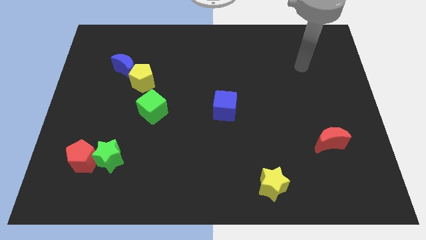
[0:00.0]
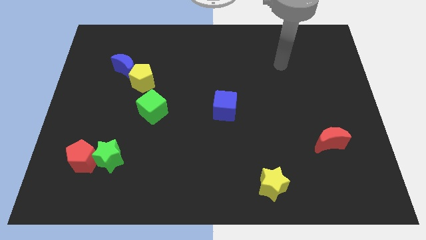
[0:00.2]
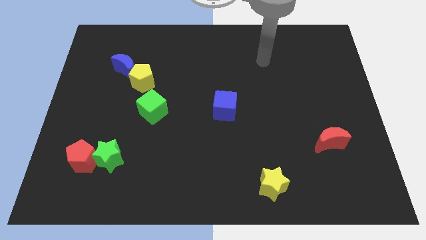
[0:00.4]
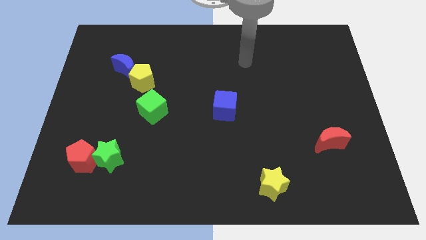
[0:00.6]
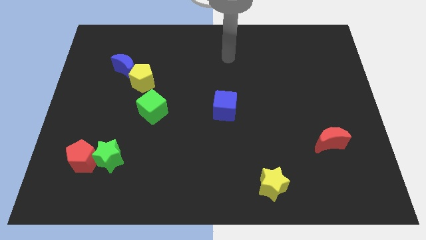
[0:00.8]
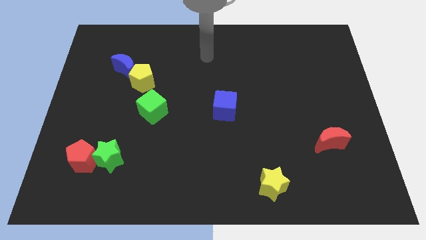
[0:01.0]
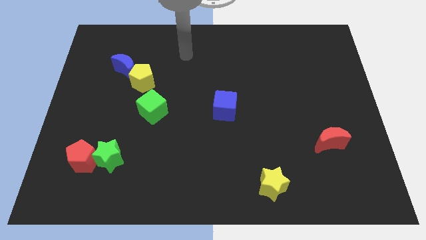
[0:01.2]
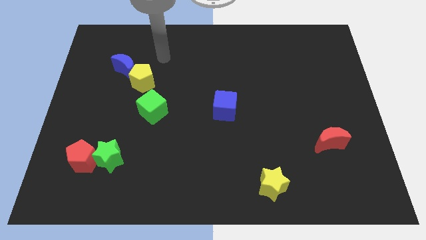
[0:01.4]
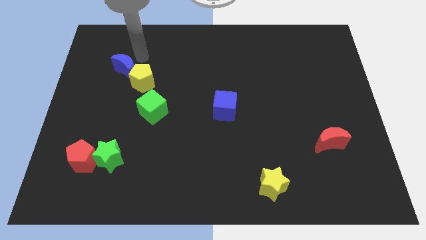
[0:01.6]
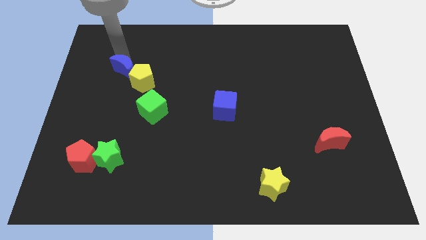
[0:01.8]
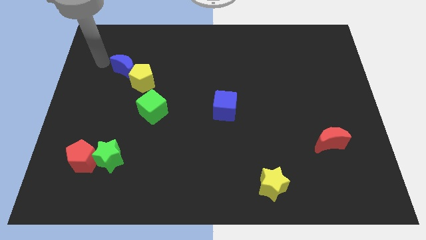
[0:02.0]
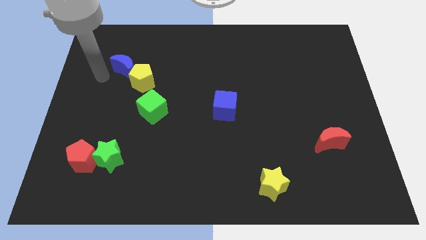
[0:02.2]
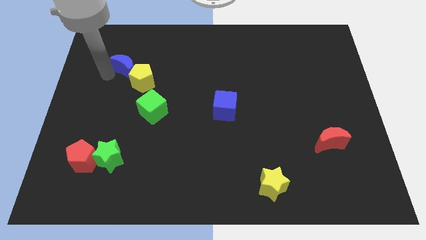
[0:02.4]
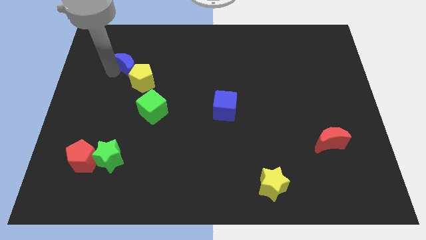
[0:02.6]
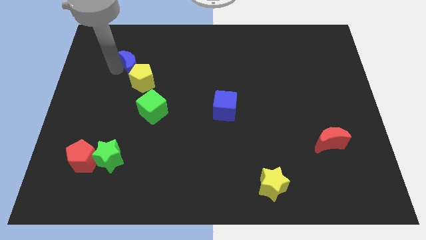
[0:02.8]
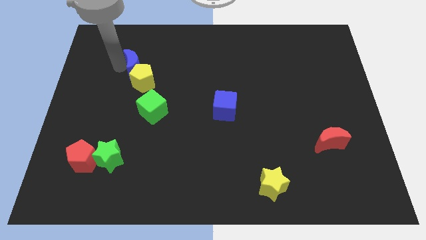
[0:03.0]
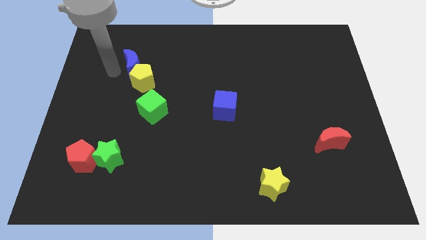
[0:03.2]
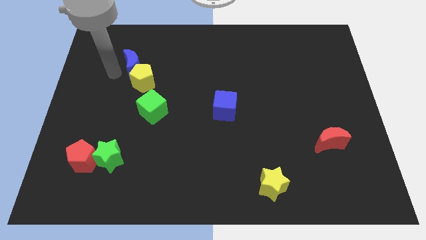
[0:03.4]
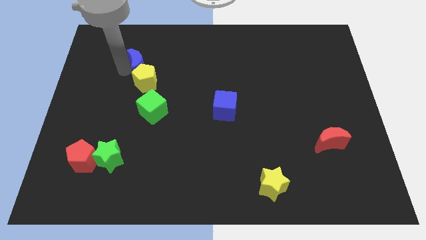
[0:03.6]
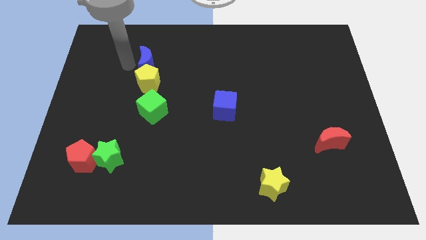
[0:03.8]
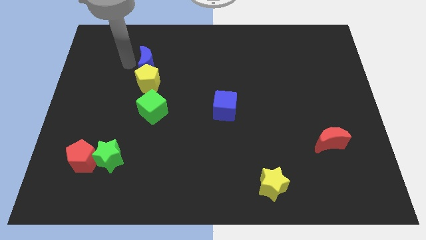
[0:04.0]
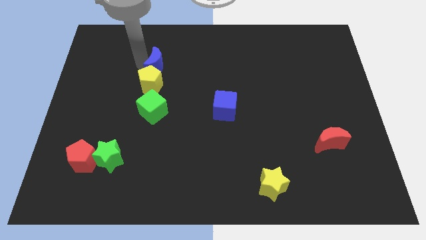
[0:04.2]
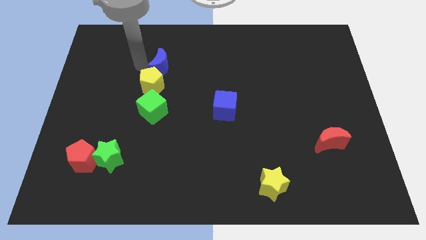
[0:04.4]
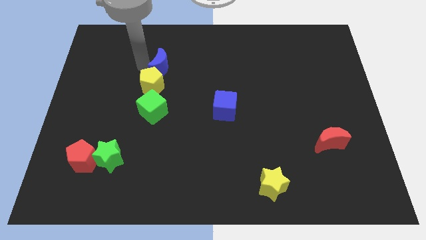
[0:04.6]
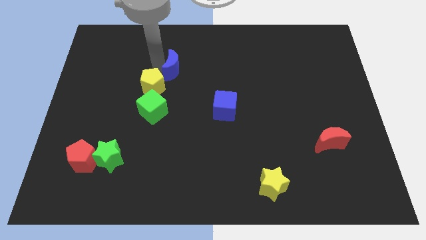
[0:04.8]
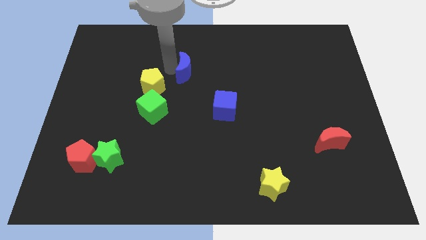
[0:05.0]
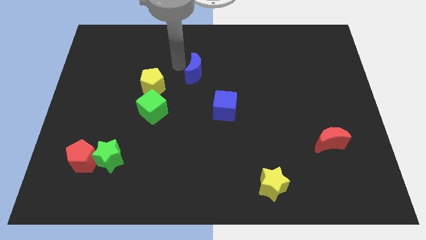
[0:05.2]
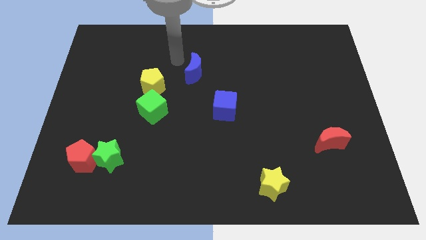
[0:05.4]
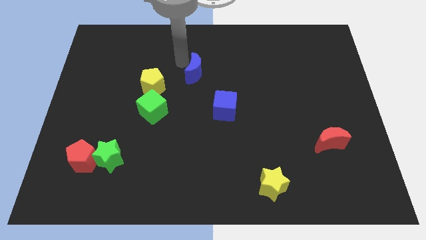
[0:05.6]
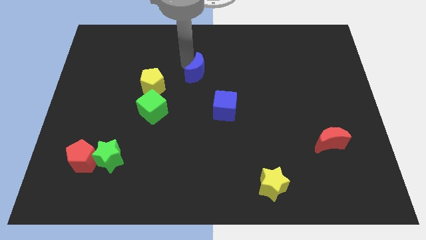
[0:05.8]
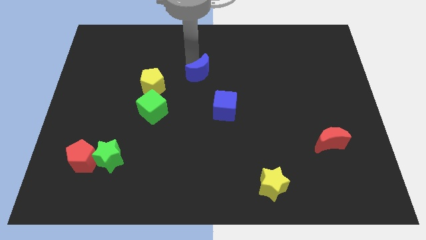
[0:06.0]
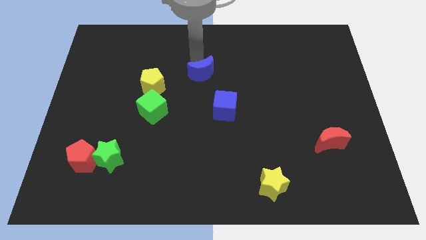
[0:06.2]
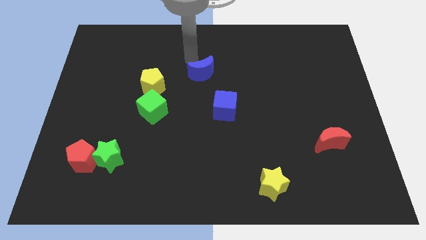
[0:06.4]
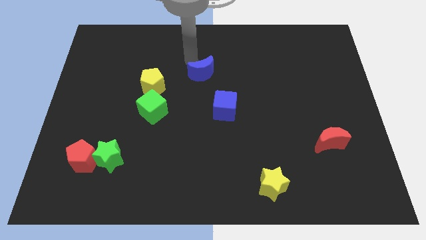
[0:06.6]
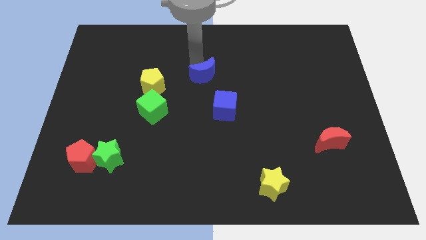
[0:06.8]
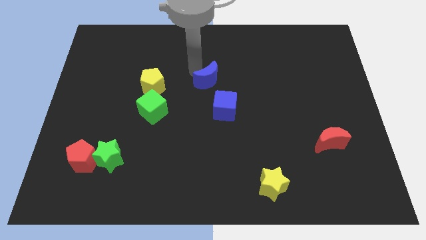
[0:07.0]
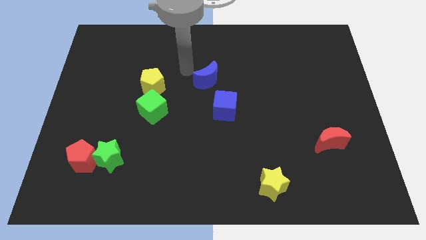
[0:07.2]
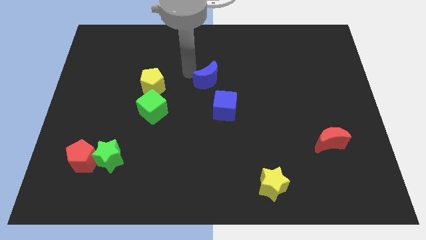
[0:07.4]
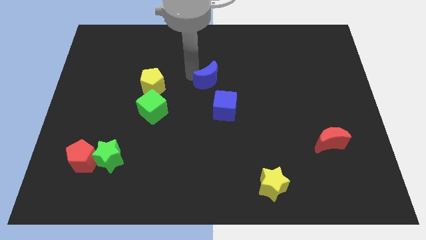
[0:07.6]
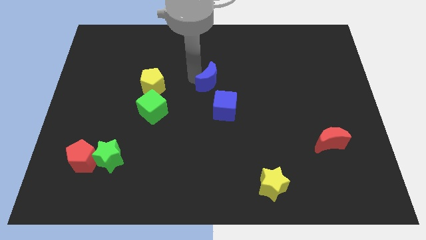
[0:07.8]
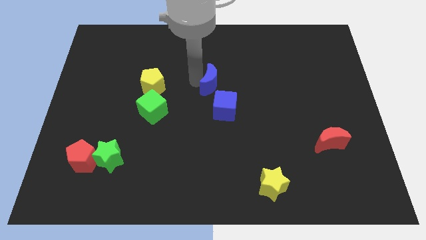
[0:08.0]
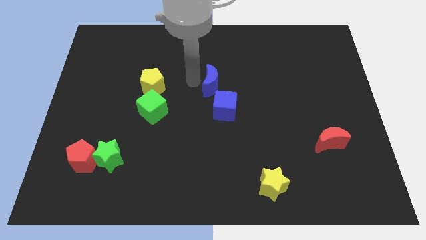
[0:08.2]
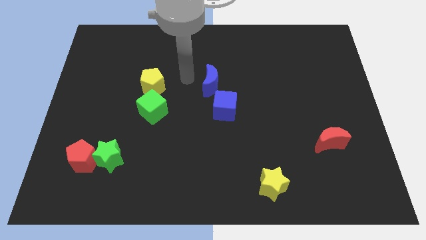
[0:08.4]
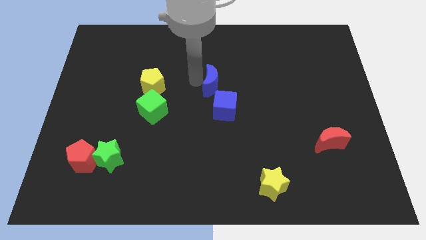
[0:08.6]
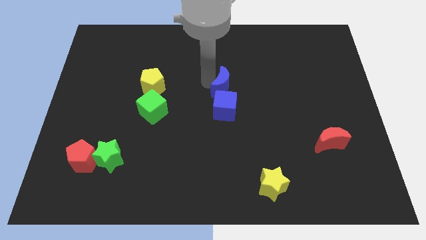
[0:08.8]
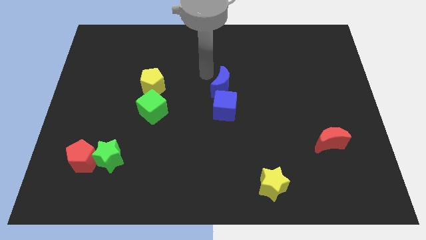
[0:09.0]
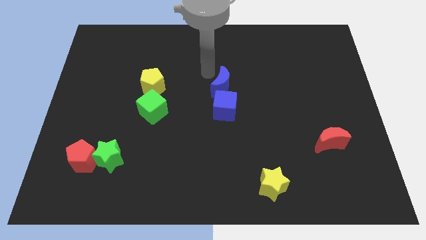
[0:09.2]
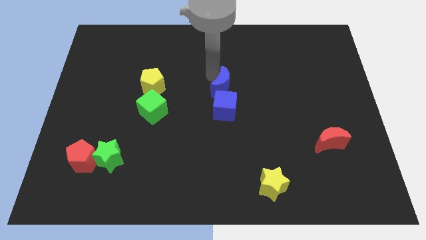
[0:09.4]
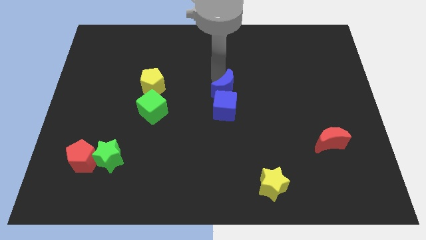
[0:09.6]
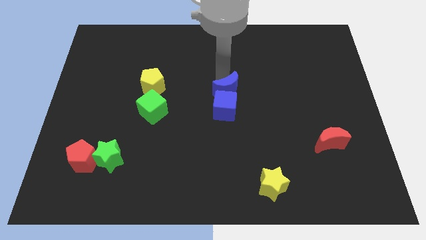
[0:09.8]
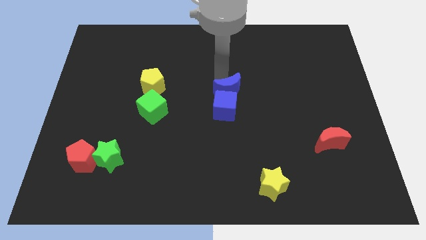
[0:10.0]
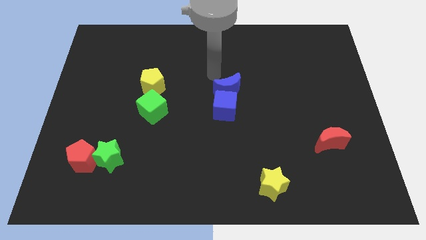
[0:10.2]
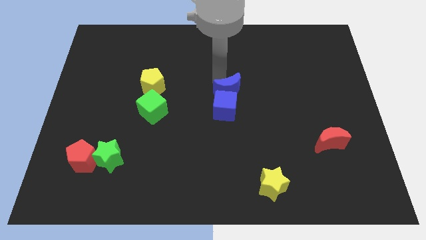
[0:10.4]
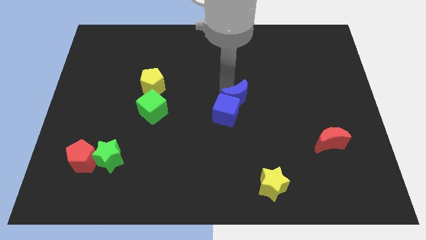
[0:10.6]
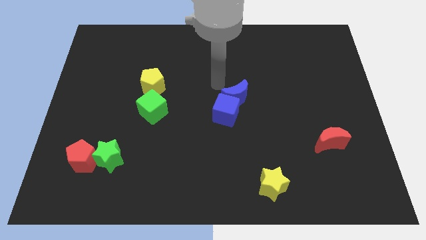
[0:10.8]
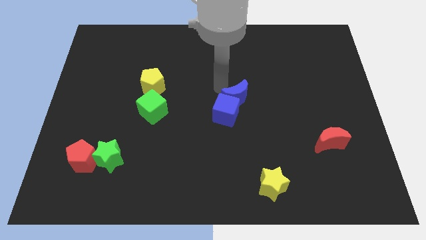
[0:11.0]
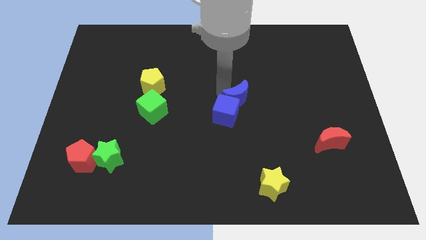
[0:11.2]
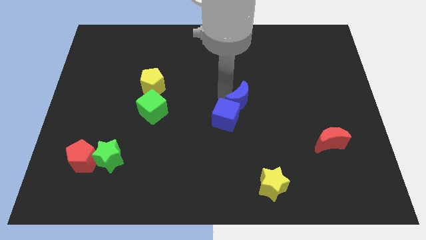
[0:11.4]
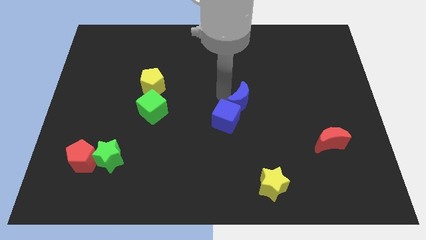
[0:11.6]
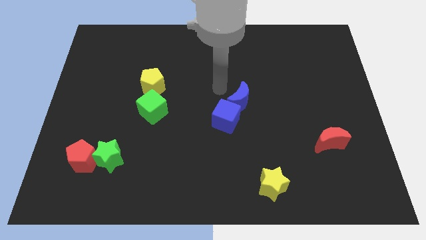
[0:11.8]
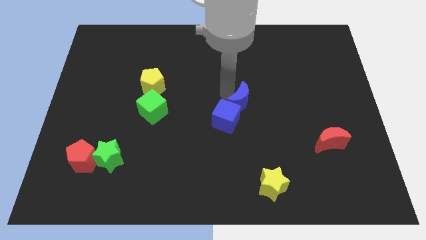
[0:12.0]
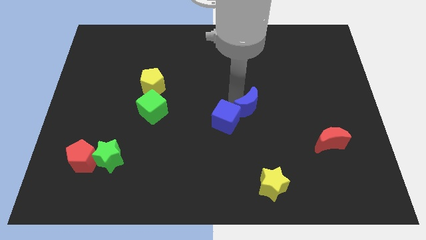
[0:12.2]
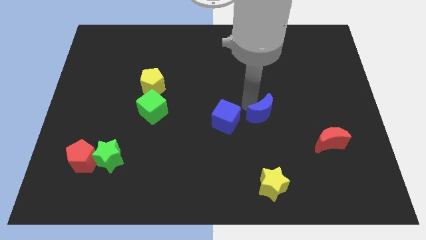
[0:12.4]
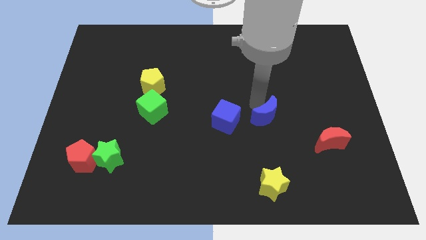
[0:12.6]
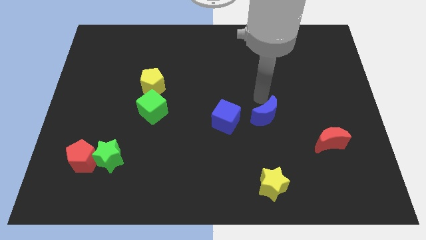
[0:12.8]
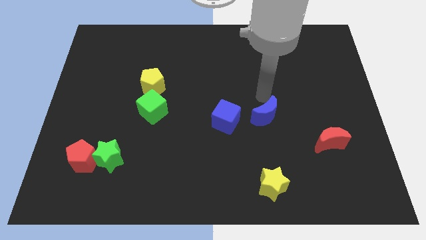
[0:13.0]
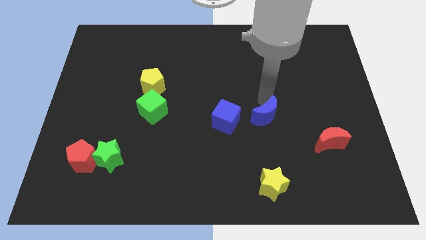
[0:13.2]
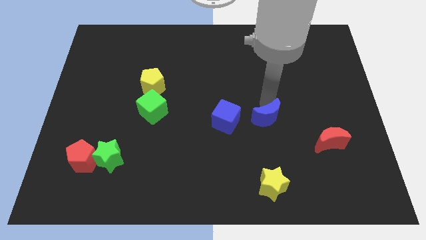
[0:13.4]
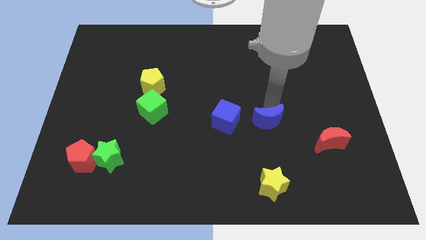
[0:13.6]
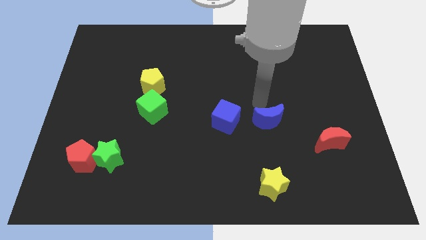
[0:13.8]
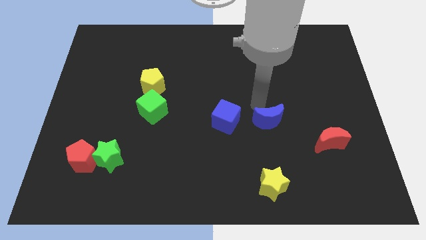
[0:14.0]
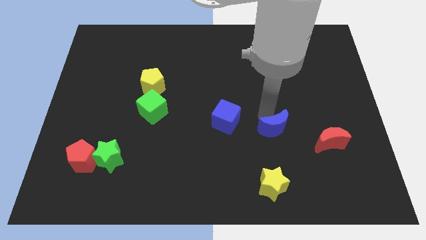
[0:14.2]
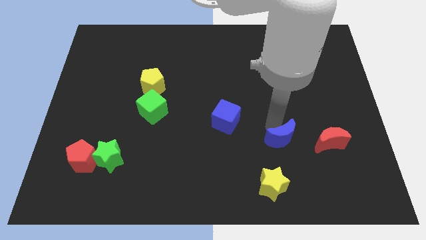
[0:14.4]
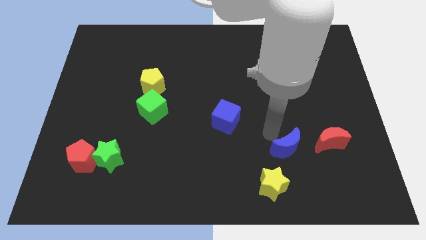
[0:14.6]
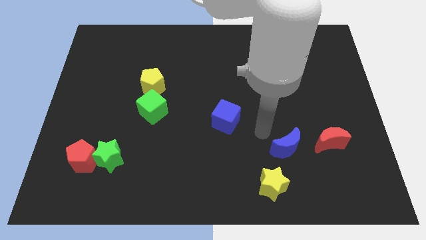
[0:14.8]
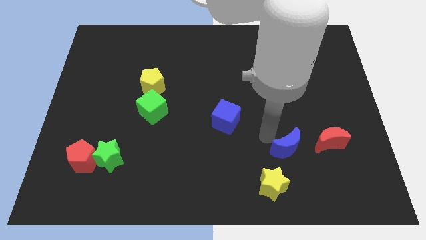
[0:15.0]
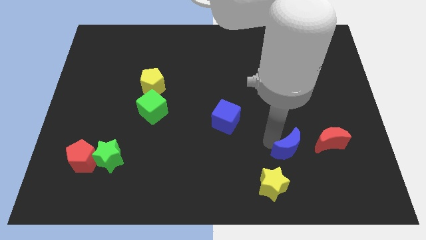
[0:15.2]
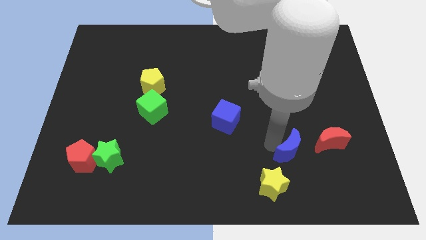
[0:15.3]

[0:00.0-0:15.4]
put the blue moon to the bottom left side of the red moon

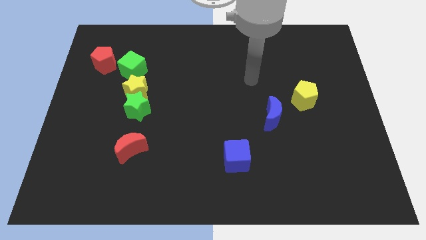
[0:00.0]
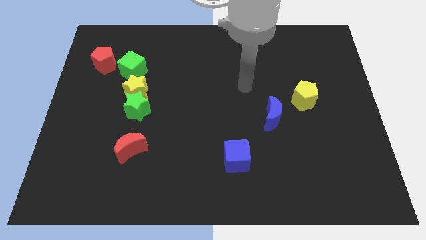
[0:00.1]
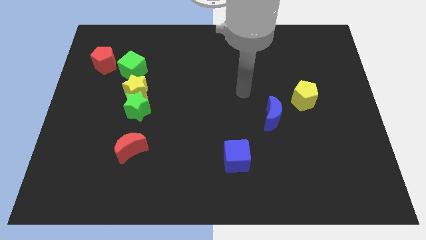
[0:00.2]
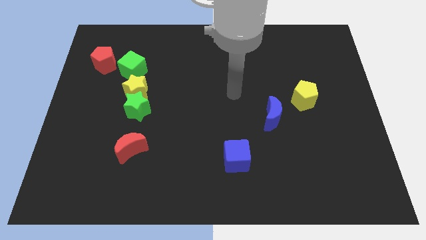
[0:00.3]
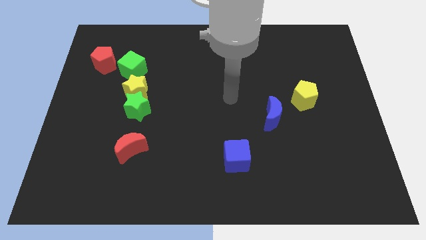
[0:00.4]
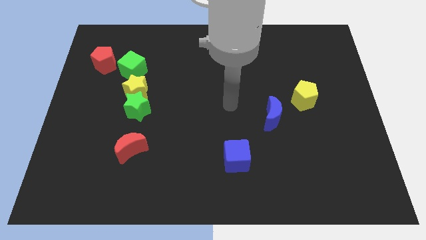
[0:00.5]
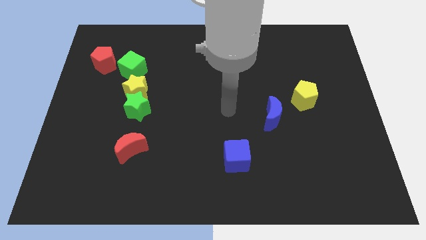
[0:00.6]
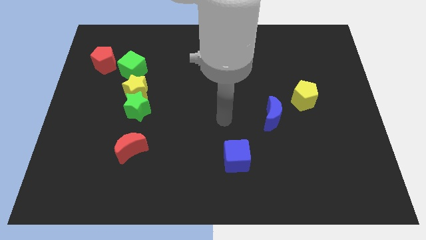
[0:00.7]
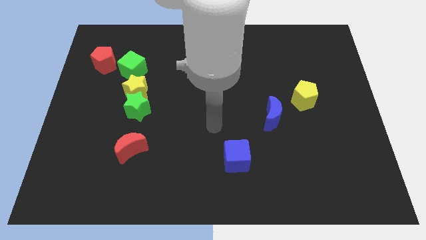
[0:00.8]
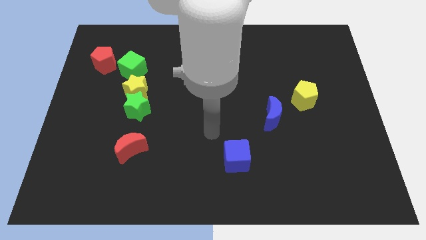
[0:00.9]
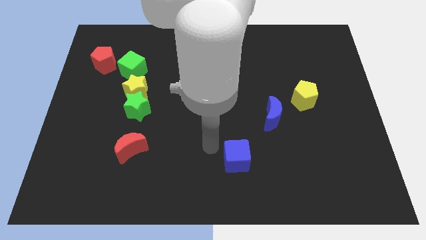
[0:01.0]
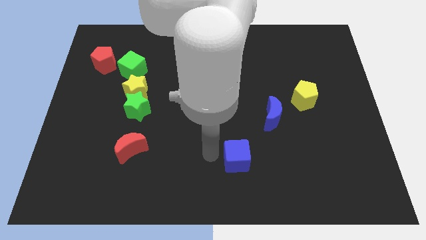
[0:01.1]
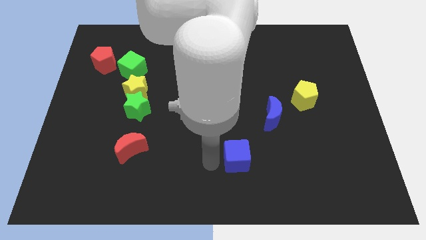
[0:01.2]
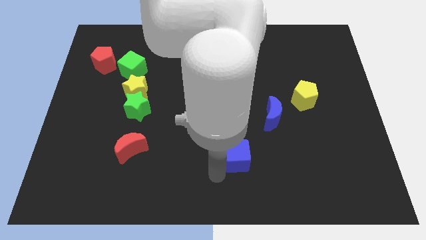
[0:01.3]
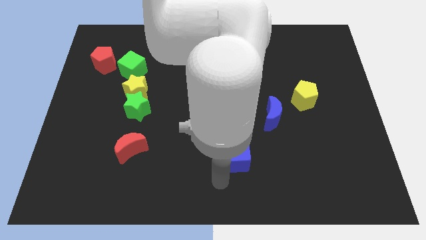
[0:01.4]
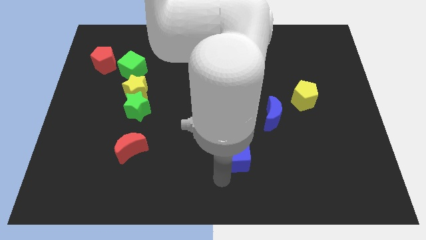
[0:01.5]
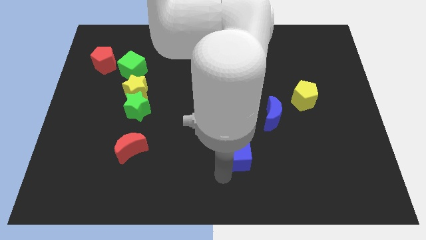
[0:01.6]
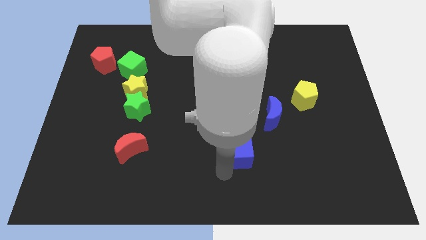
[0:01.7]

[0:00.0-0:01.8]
slide the blue cube to the bottom left of the blue moon
